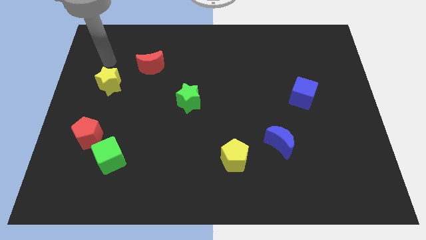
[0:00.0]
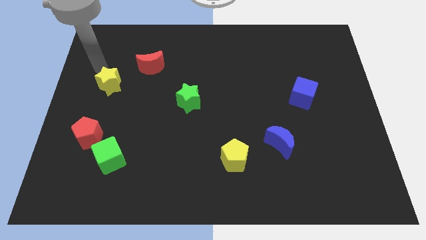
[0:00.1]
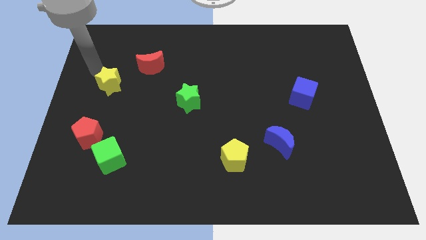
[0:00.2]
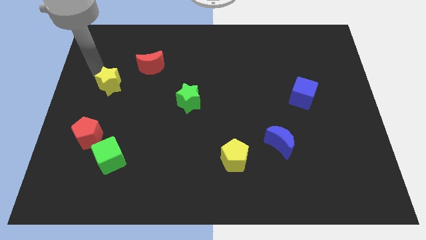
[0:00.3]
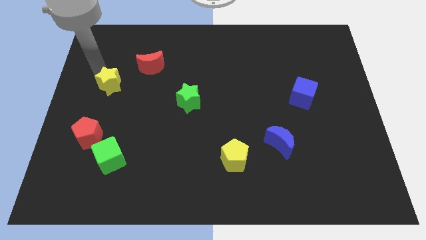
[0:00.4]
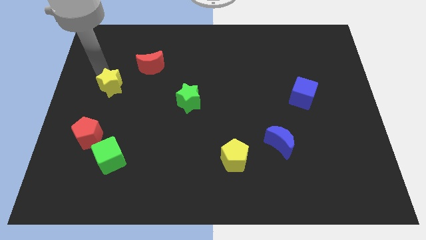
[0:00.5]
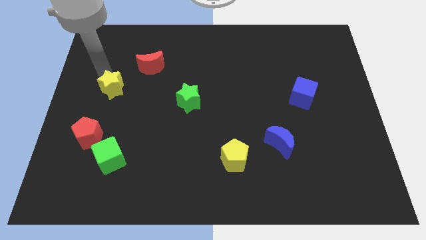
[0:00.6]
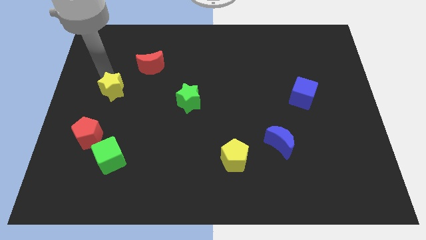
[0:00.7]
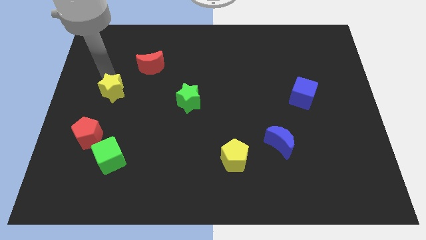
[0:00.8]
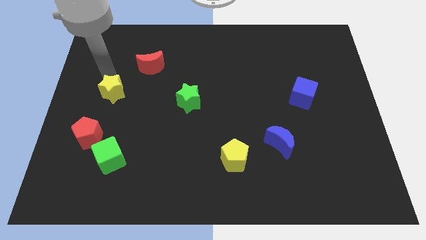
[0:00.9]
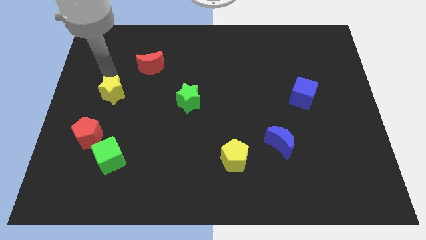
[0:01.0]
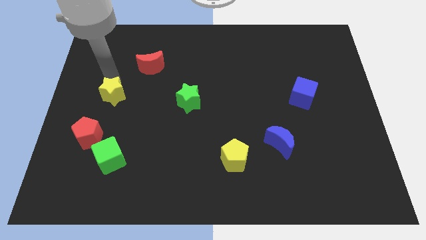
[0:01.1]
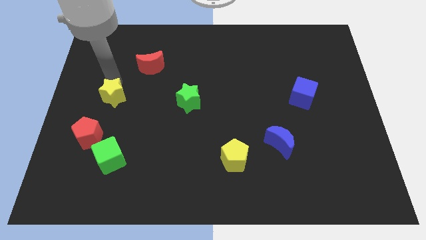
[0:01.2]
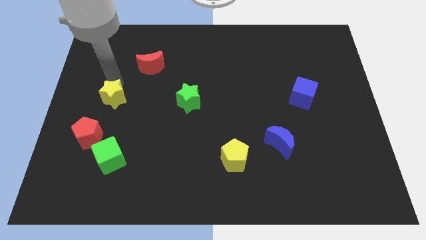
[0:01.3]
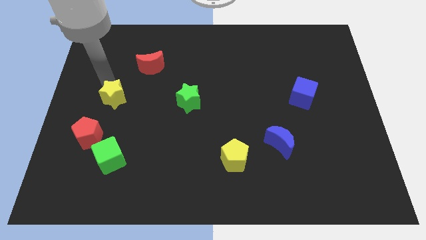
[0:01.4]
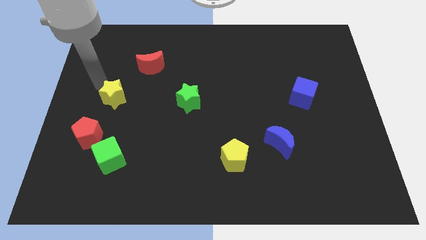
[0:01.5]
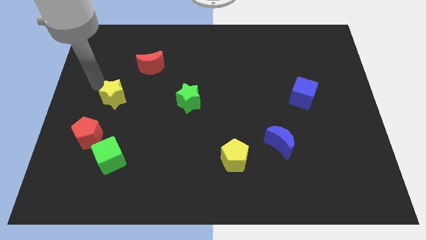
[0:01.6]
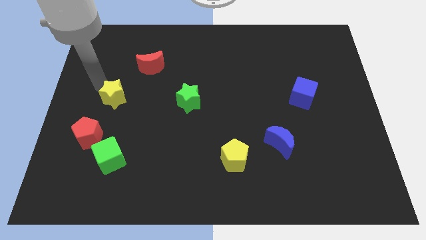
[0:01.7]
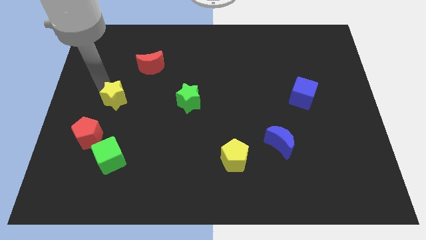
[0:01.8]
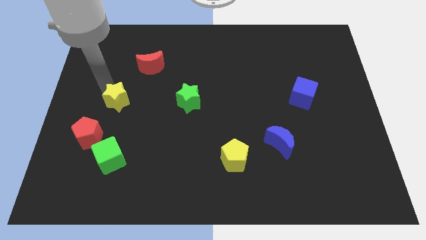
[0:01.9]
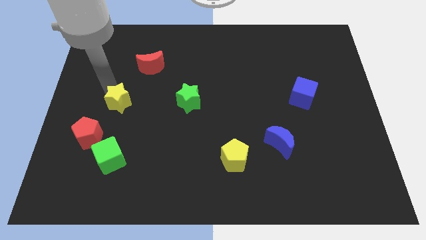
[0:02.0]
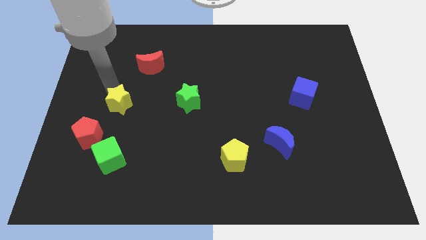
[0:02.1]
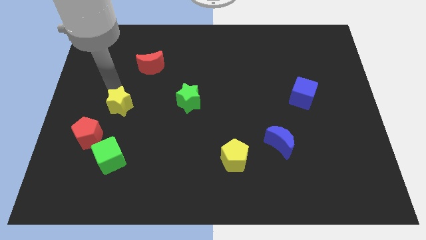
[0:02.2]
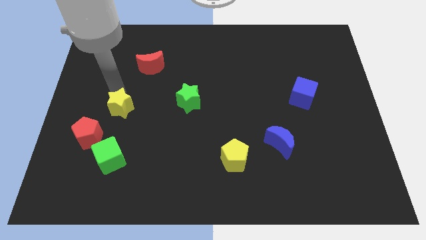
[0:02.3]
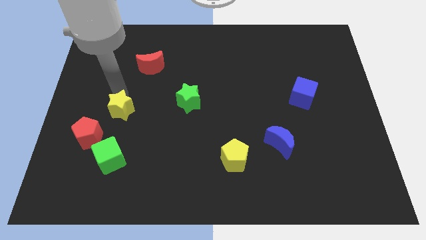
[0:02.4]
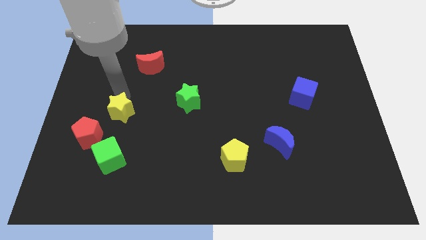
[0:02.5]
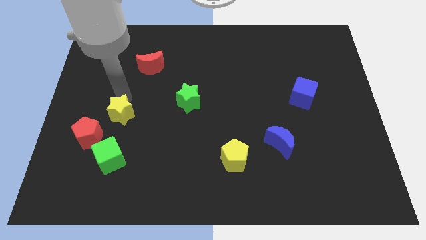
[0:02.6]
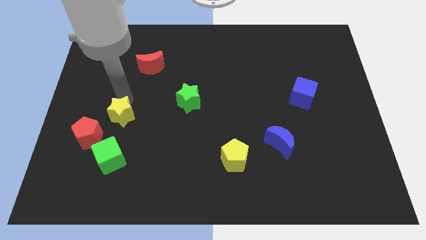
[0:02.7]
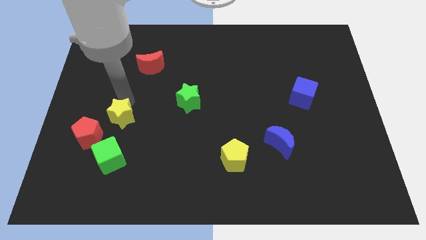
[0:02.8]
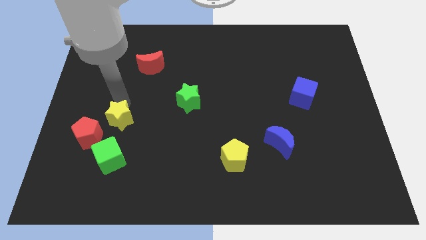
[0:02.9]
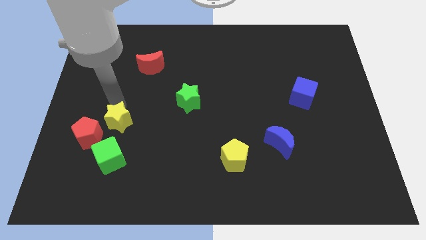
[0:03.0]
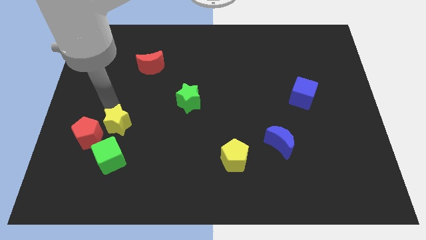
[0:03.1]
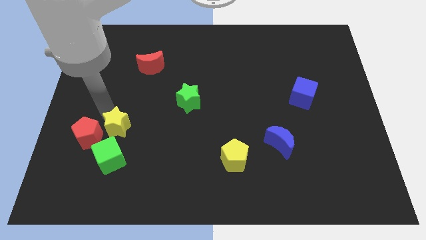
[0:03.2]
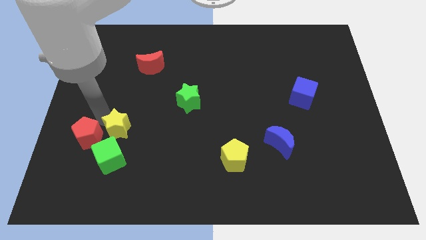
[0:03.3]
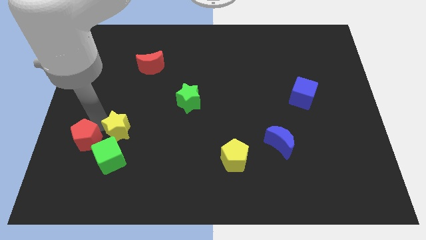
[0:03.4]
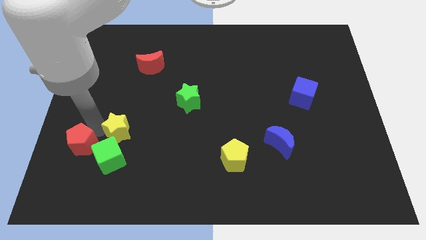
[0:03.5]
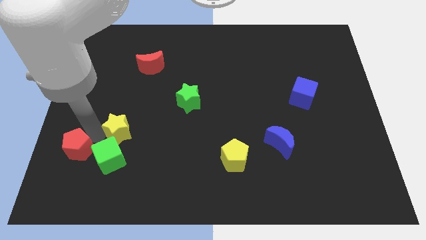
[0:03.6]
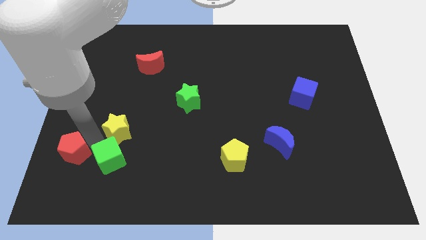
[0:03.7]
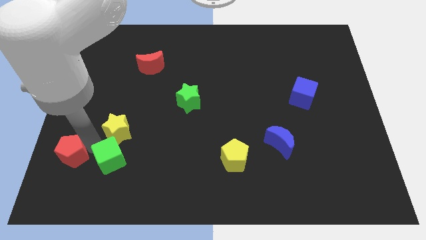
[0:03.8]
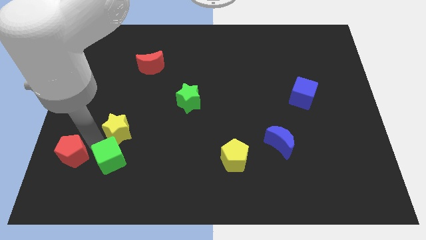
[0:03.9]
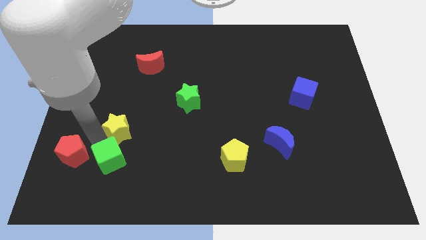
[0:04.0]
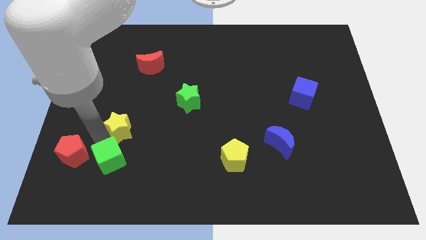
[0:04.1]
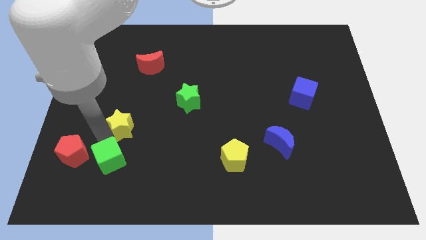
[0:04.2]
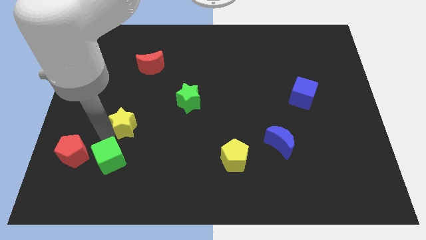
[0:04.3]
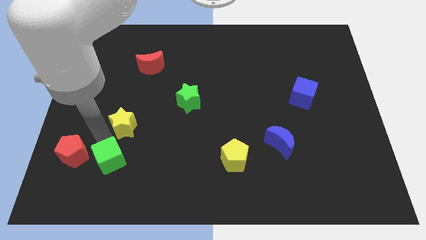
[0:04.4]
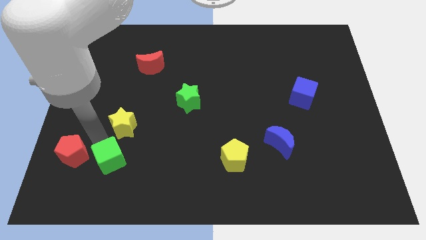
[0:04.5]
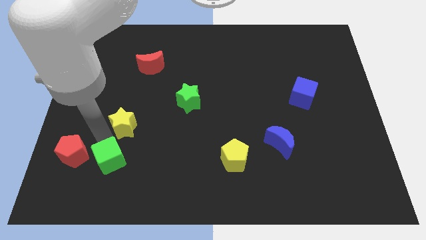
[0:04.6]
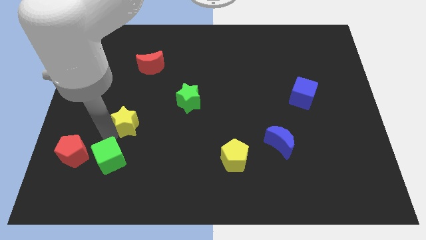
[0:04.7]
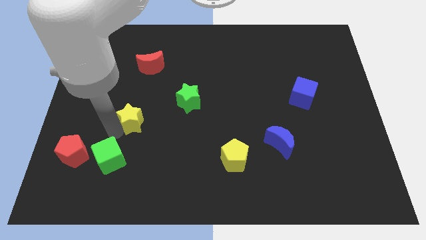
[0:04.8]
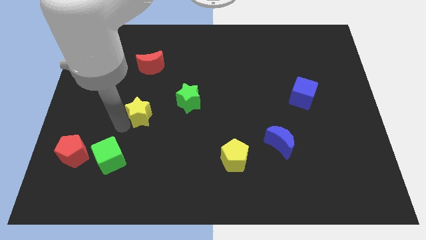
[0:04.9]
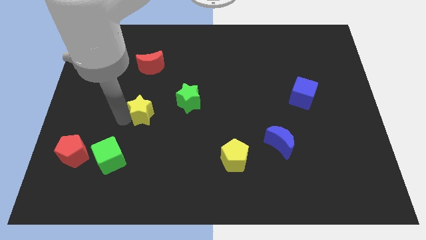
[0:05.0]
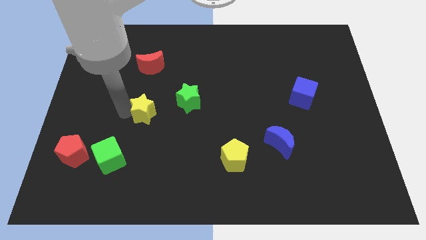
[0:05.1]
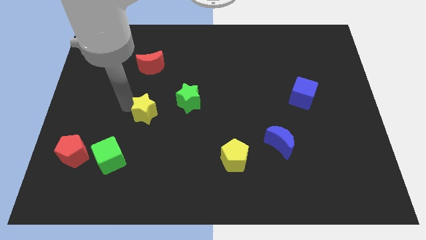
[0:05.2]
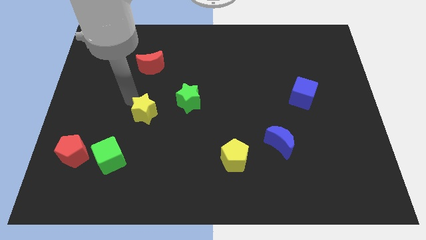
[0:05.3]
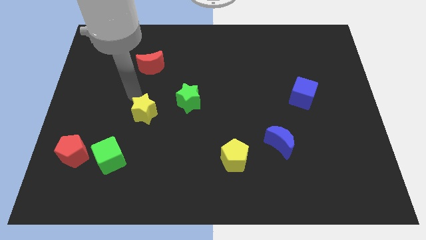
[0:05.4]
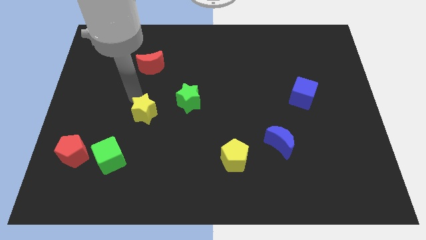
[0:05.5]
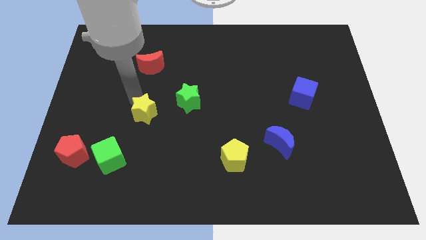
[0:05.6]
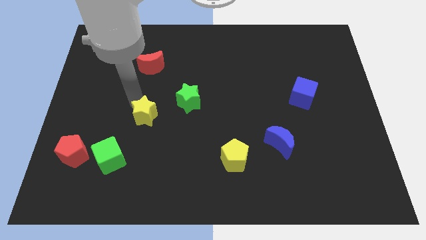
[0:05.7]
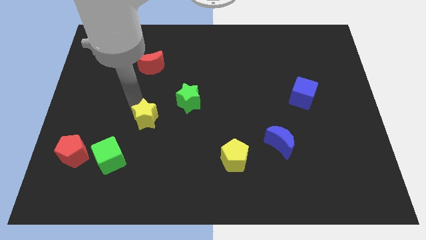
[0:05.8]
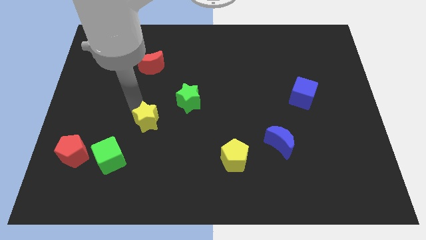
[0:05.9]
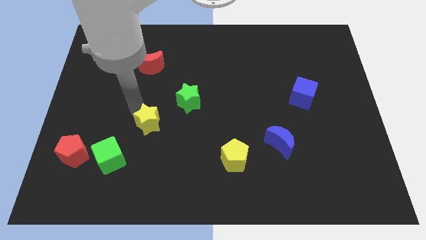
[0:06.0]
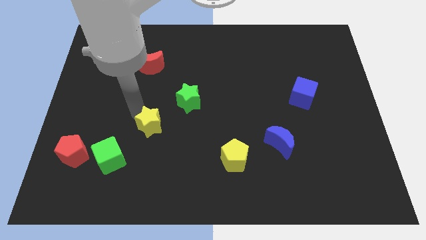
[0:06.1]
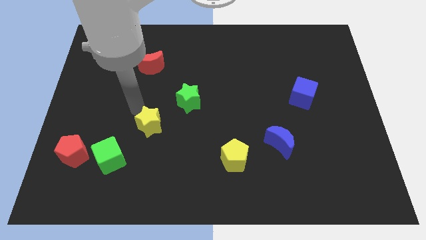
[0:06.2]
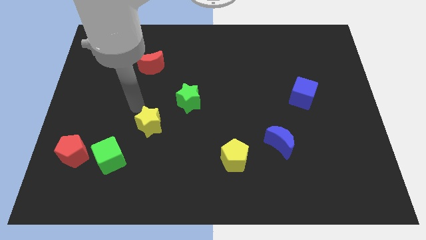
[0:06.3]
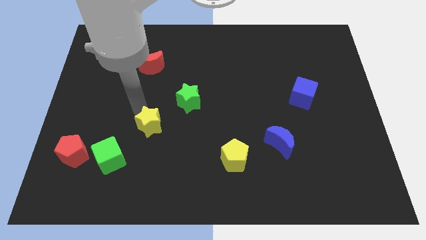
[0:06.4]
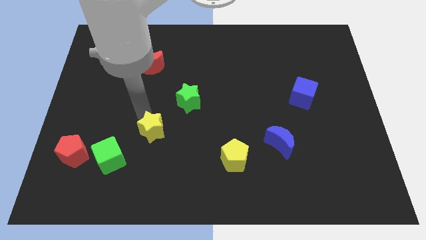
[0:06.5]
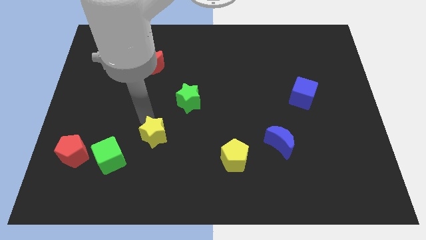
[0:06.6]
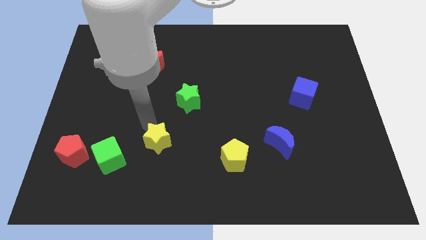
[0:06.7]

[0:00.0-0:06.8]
push the yellow star diagonally down and right

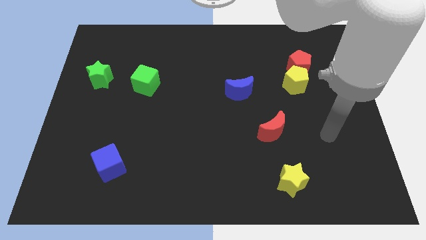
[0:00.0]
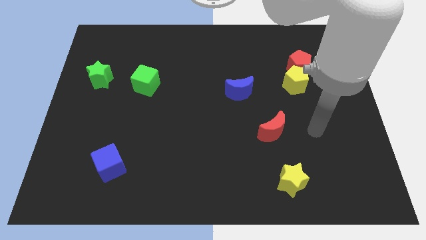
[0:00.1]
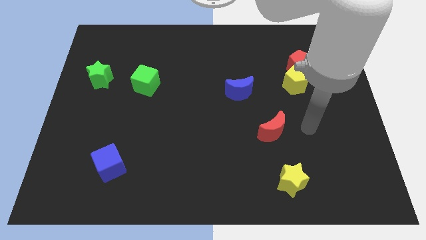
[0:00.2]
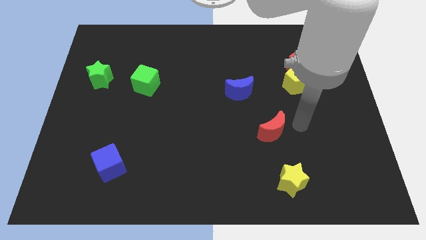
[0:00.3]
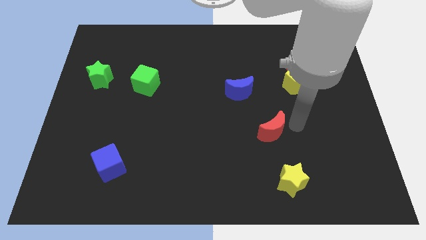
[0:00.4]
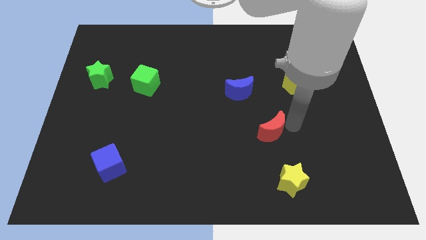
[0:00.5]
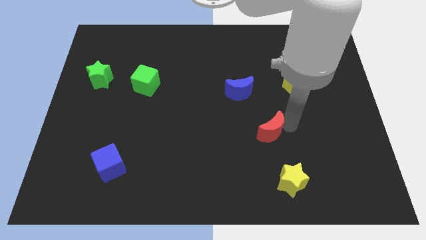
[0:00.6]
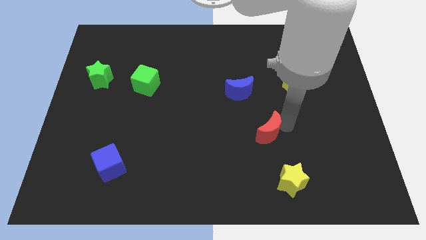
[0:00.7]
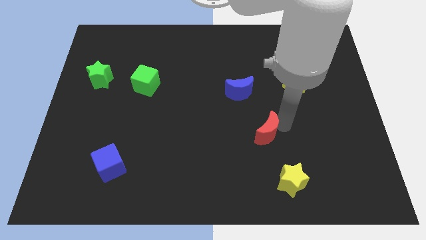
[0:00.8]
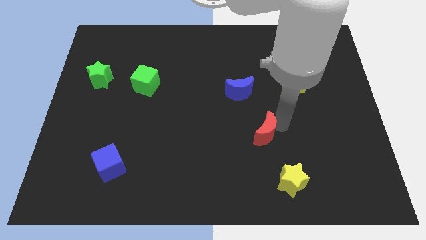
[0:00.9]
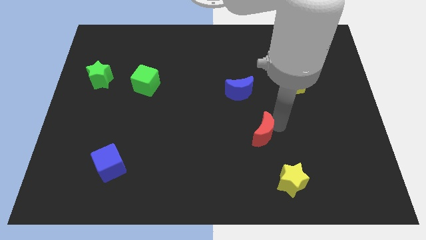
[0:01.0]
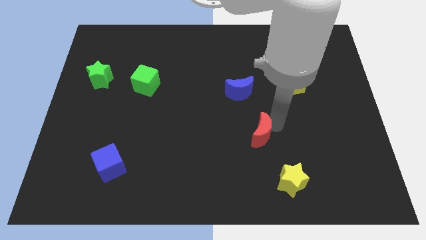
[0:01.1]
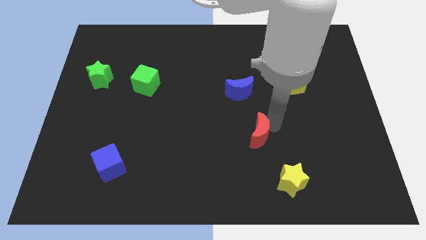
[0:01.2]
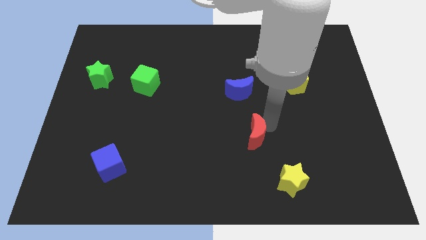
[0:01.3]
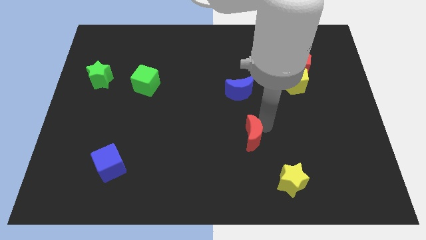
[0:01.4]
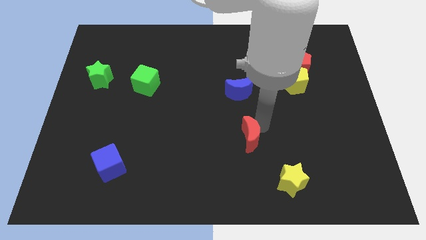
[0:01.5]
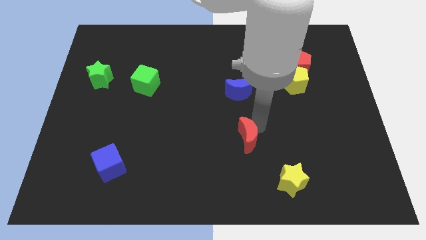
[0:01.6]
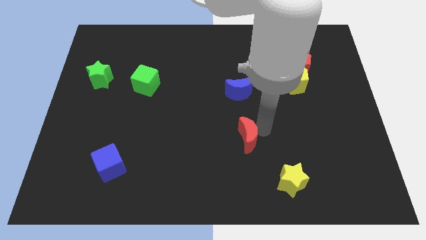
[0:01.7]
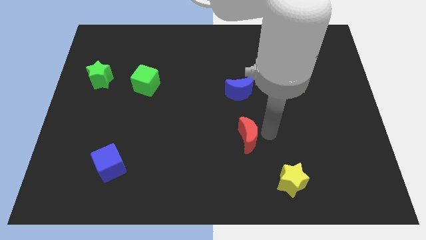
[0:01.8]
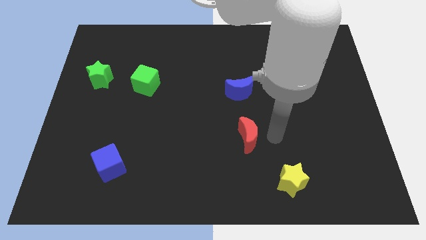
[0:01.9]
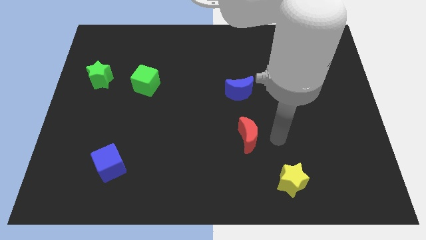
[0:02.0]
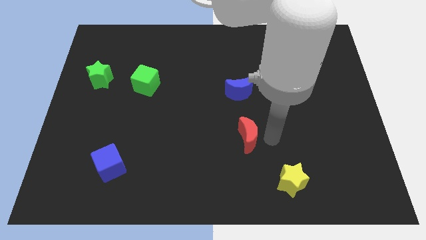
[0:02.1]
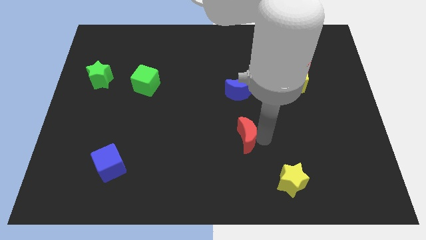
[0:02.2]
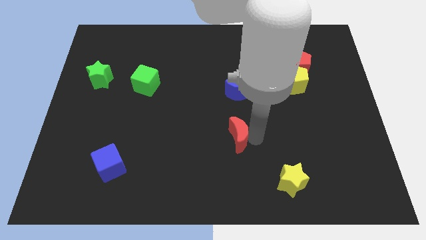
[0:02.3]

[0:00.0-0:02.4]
slightly push the red moon left
